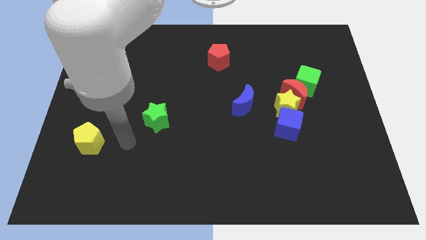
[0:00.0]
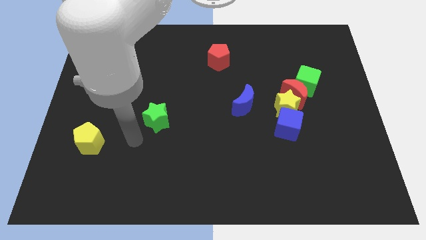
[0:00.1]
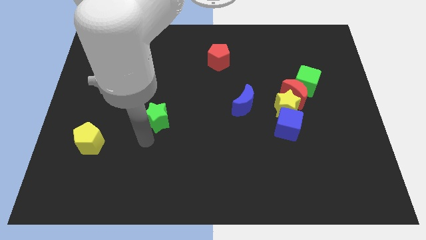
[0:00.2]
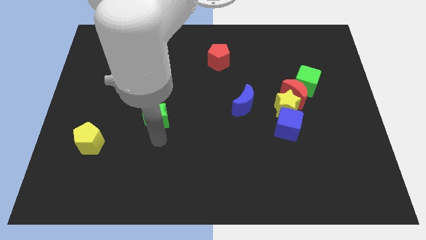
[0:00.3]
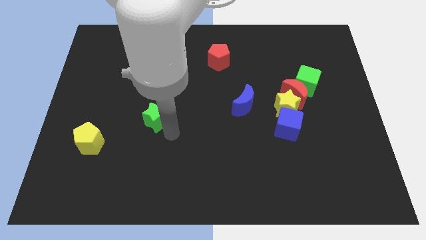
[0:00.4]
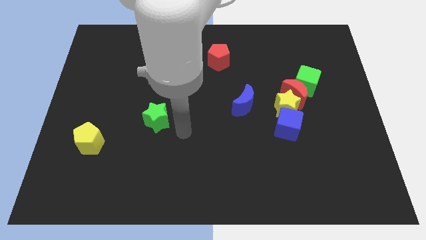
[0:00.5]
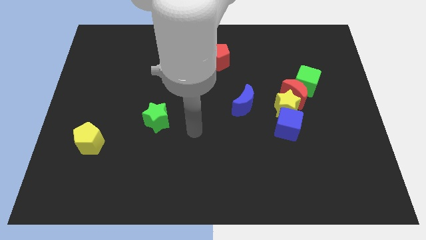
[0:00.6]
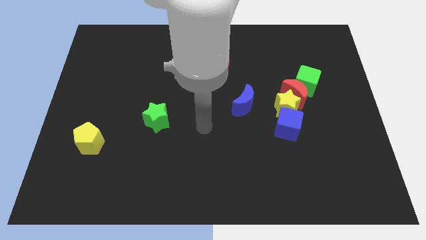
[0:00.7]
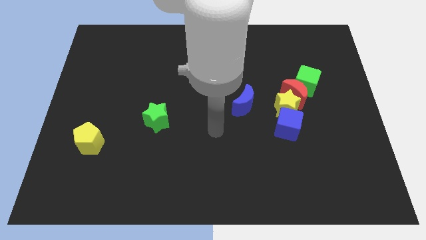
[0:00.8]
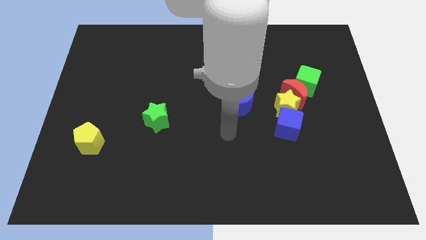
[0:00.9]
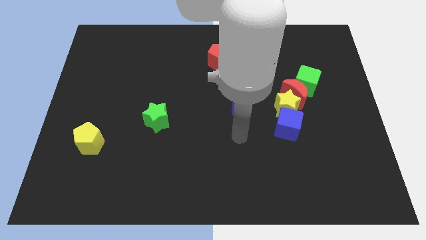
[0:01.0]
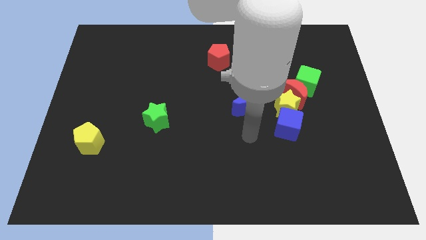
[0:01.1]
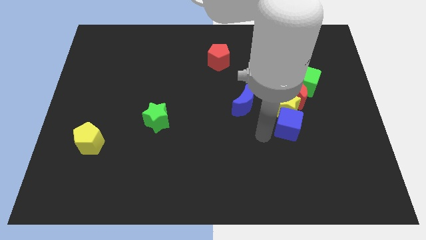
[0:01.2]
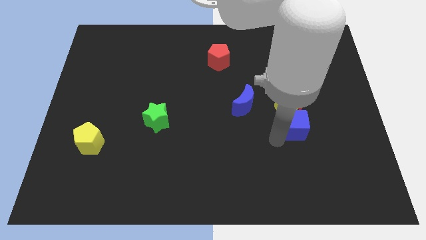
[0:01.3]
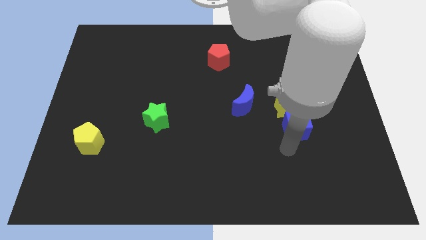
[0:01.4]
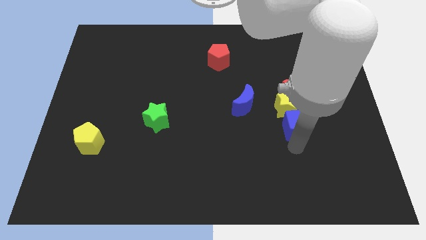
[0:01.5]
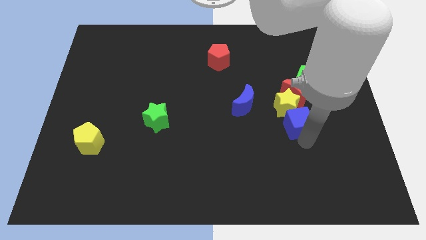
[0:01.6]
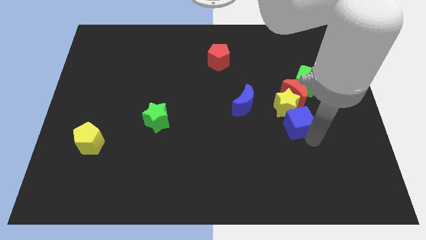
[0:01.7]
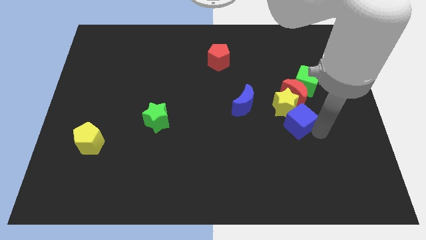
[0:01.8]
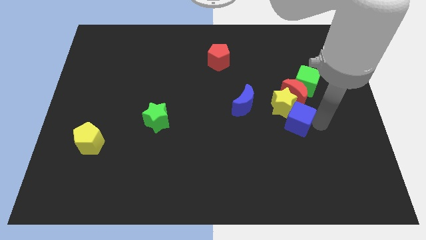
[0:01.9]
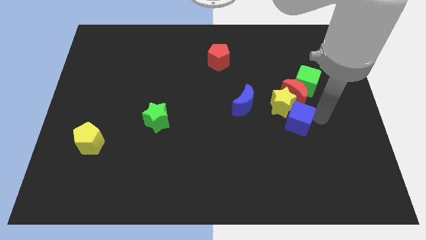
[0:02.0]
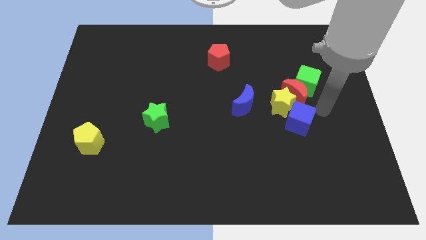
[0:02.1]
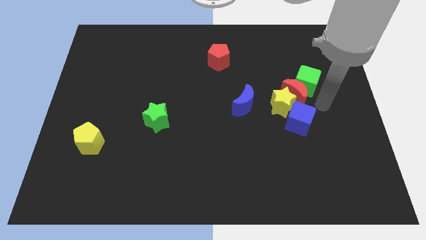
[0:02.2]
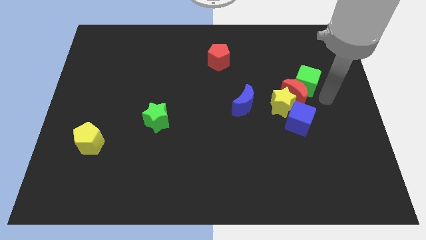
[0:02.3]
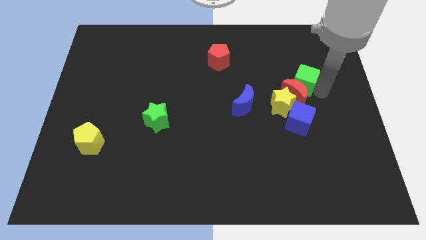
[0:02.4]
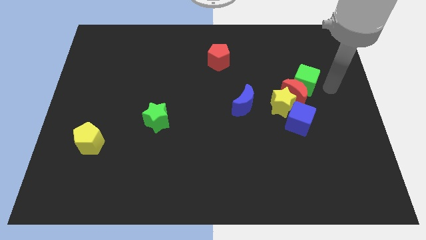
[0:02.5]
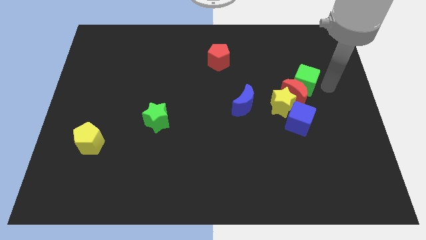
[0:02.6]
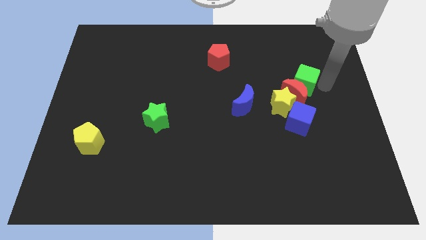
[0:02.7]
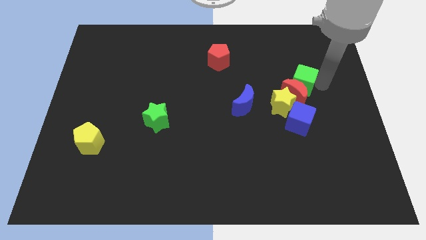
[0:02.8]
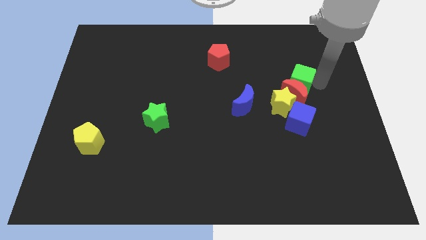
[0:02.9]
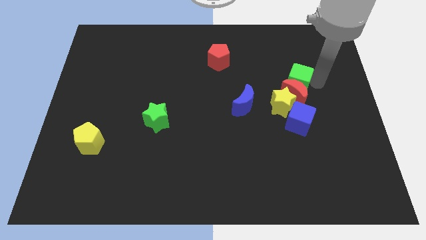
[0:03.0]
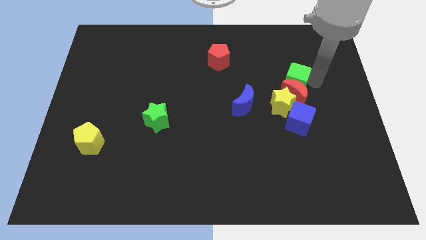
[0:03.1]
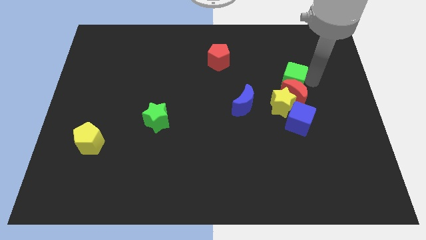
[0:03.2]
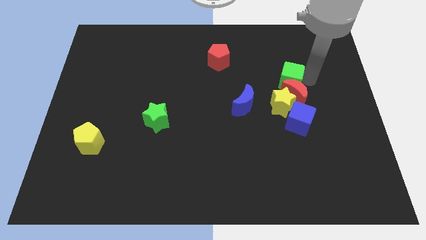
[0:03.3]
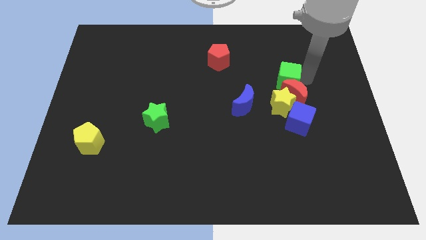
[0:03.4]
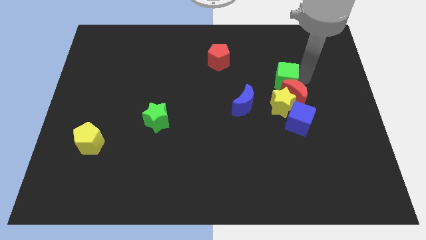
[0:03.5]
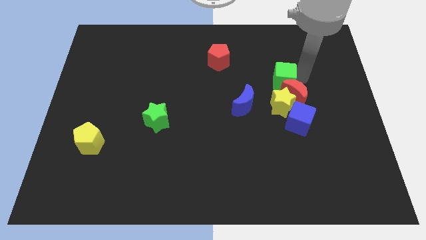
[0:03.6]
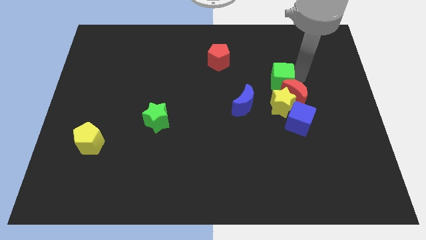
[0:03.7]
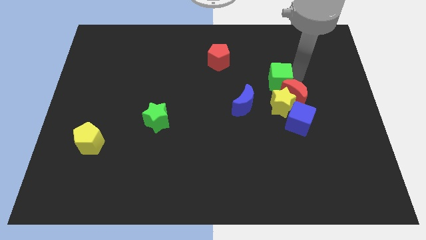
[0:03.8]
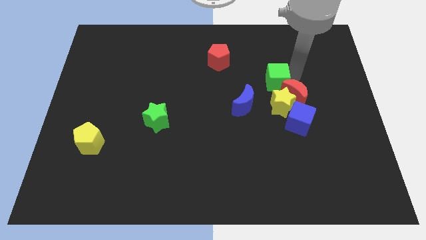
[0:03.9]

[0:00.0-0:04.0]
move the green cube a bit left

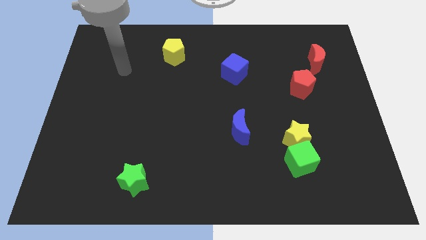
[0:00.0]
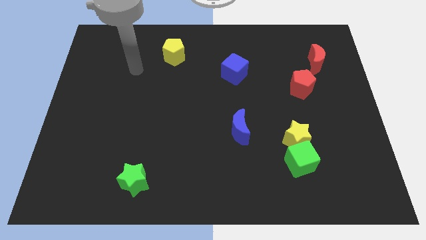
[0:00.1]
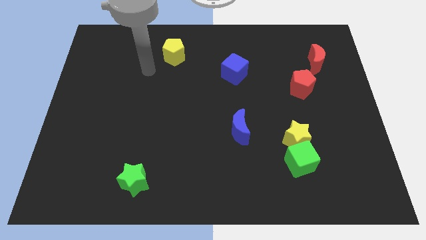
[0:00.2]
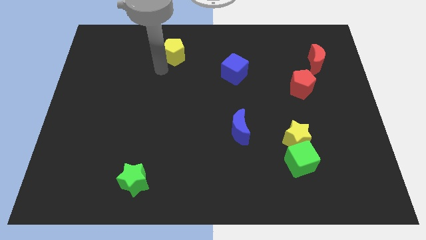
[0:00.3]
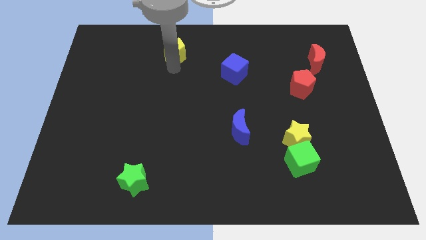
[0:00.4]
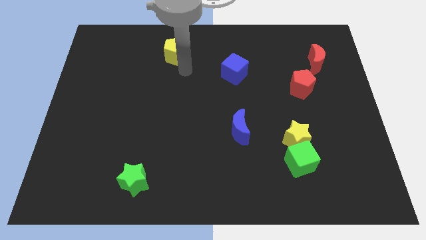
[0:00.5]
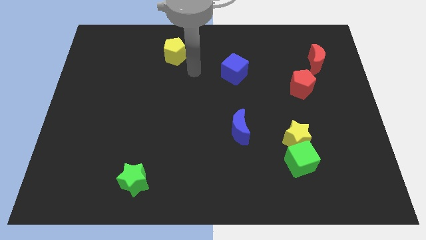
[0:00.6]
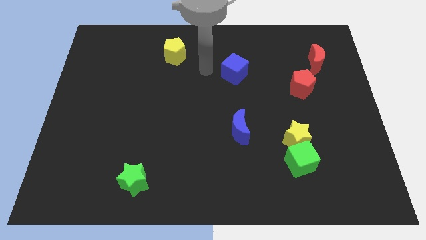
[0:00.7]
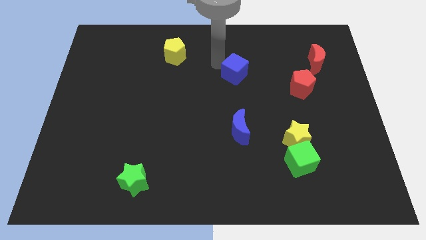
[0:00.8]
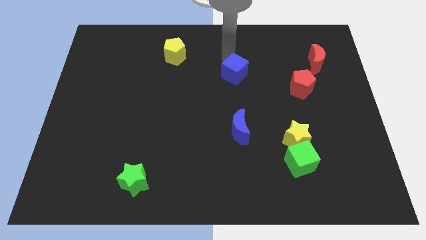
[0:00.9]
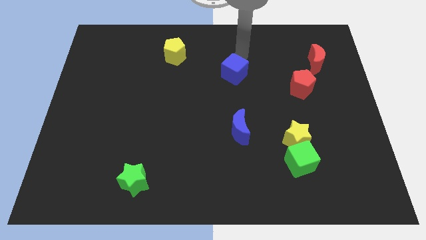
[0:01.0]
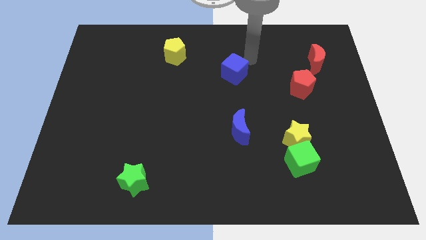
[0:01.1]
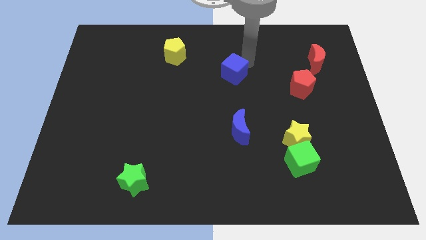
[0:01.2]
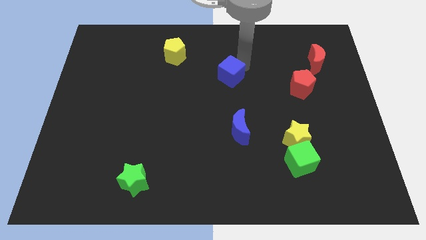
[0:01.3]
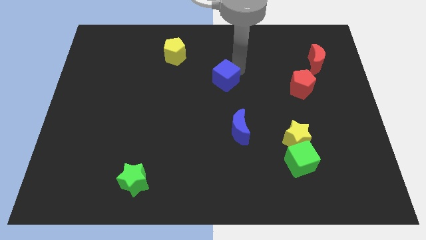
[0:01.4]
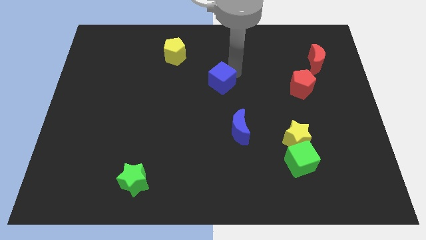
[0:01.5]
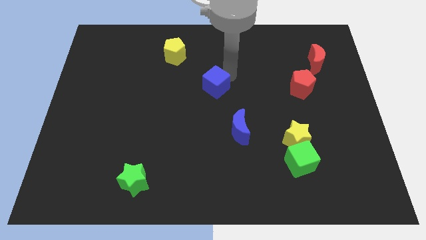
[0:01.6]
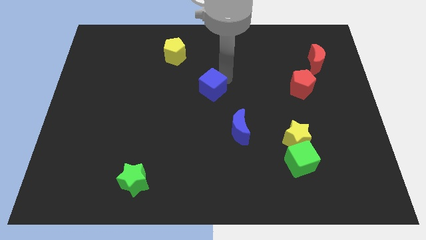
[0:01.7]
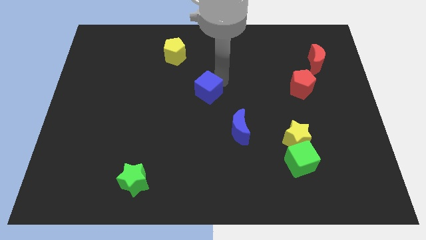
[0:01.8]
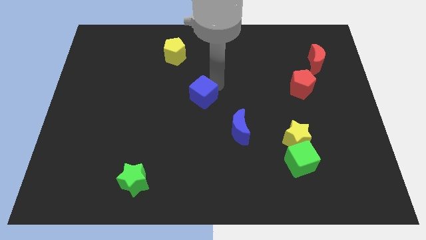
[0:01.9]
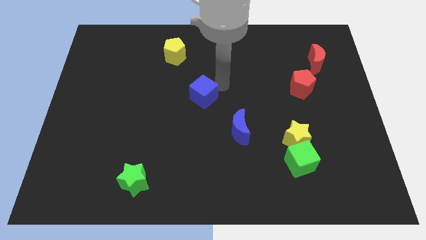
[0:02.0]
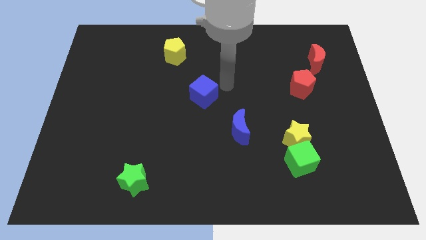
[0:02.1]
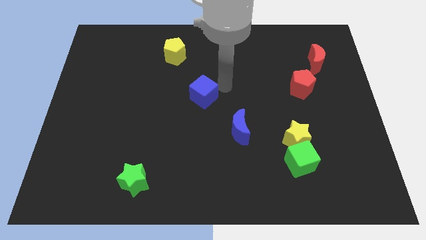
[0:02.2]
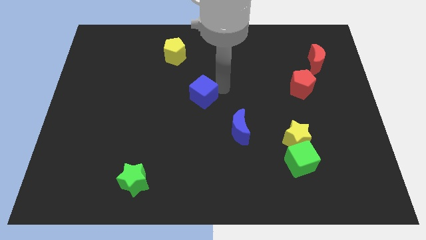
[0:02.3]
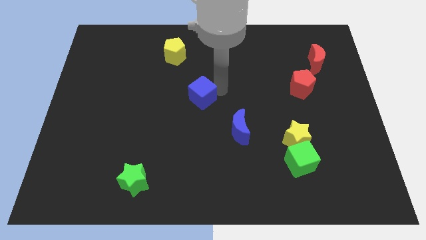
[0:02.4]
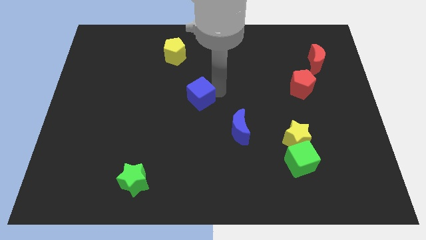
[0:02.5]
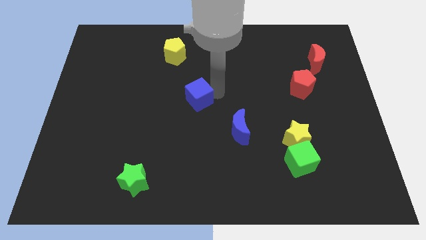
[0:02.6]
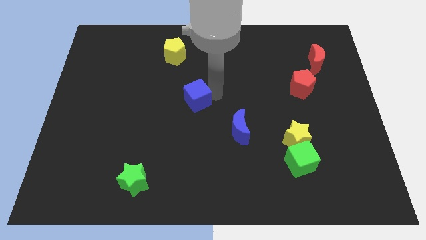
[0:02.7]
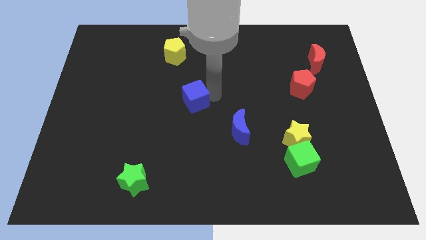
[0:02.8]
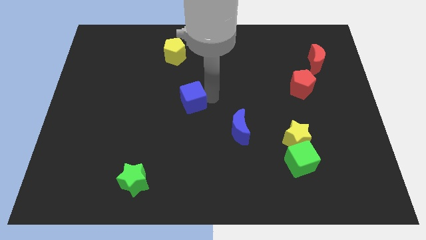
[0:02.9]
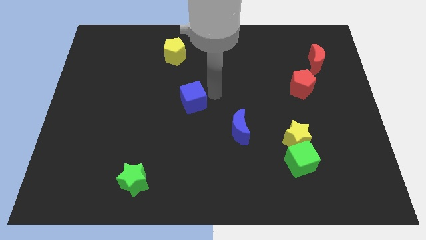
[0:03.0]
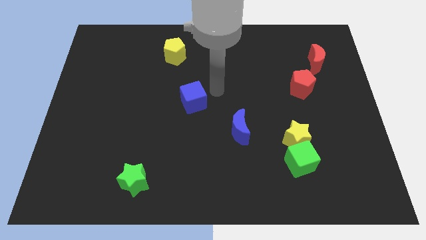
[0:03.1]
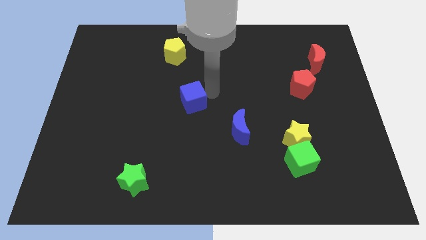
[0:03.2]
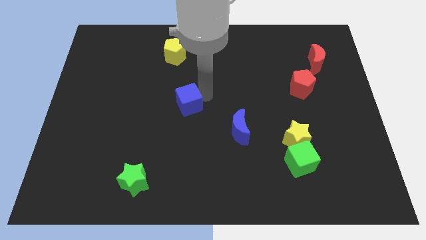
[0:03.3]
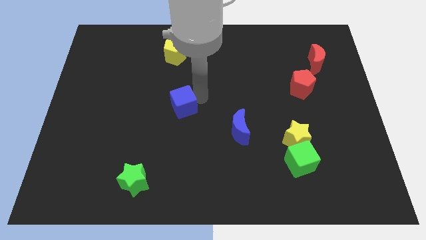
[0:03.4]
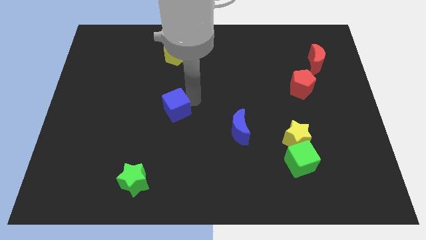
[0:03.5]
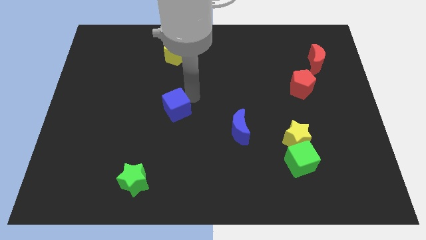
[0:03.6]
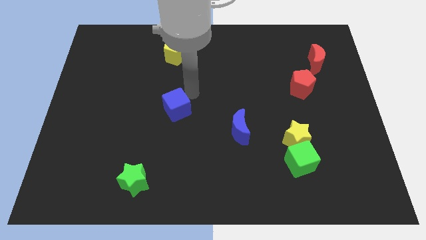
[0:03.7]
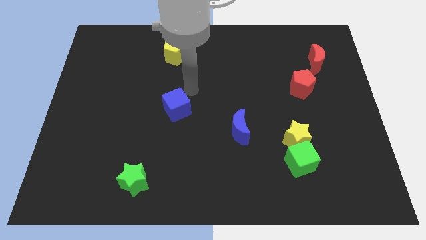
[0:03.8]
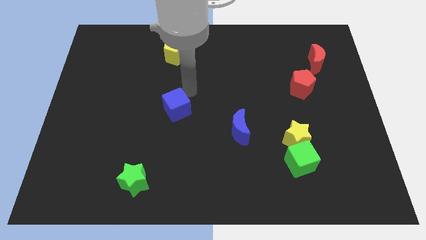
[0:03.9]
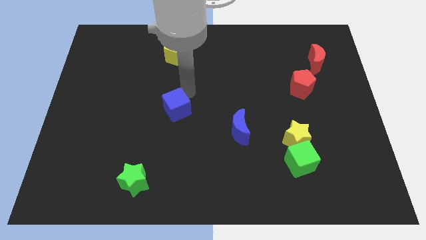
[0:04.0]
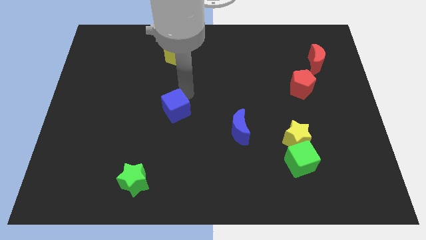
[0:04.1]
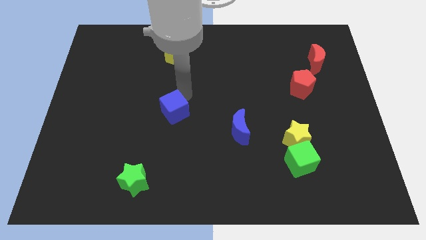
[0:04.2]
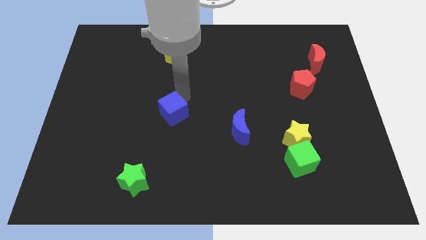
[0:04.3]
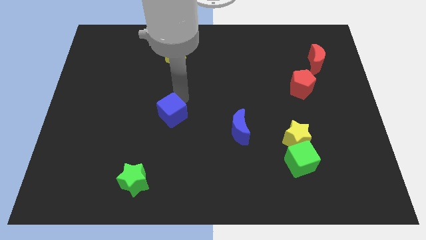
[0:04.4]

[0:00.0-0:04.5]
slide the blue cube diagonally downwards and to the left
